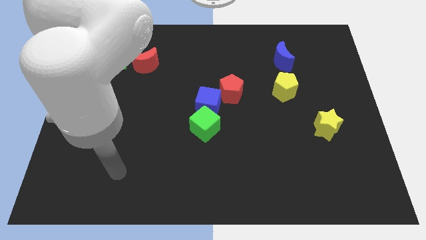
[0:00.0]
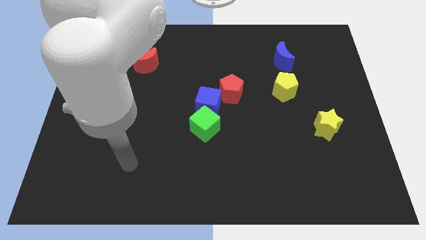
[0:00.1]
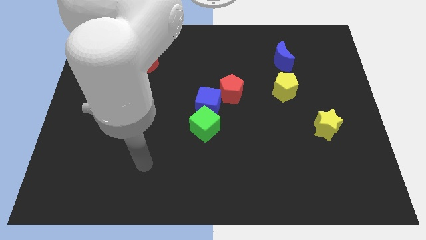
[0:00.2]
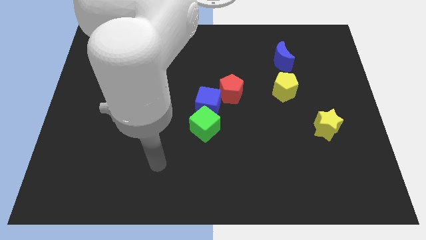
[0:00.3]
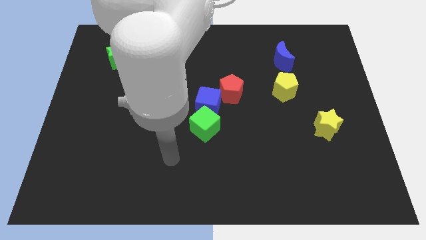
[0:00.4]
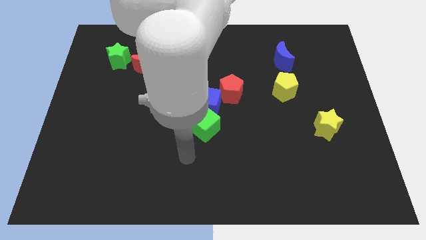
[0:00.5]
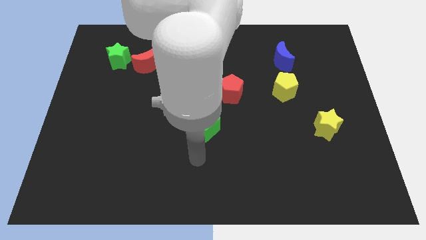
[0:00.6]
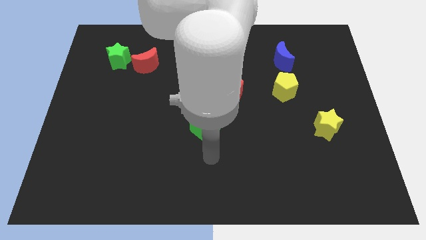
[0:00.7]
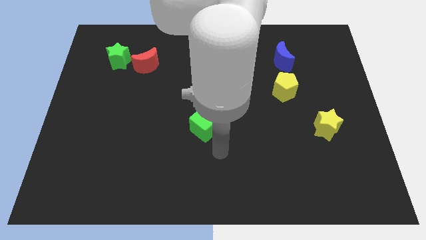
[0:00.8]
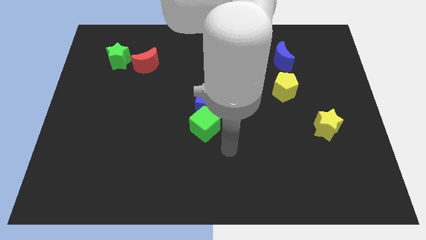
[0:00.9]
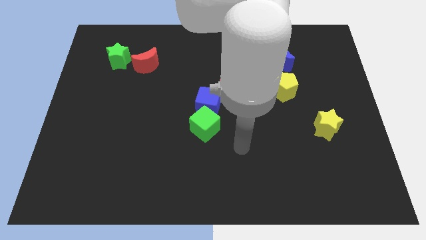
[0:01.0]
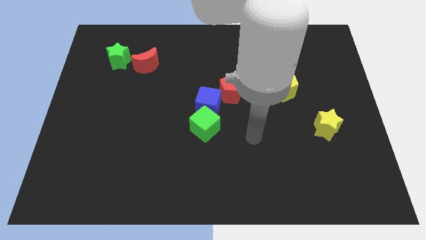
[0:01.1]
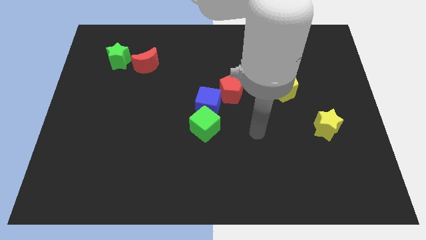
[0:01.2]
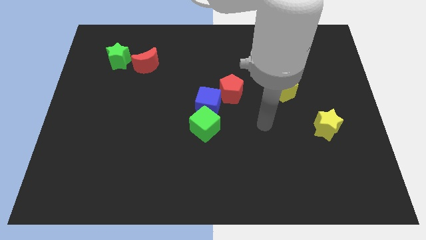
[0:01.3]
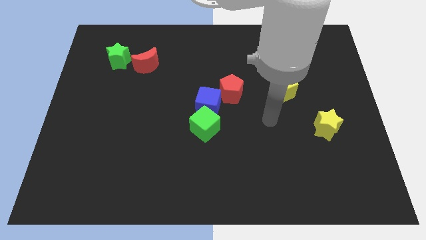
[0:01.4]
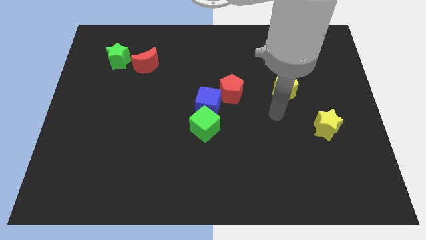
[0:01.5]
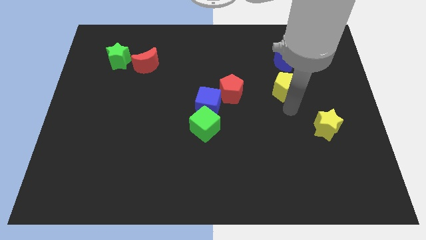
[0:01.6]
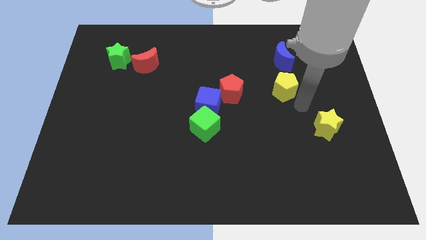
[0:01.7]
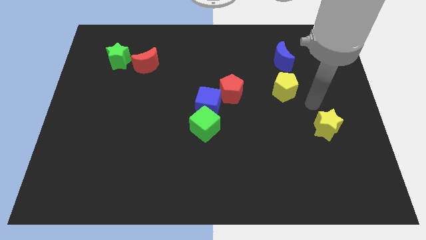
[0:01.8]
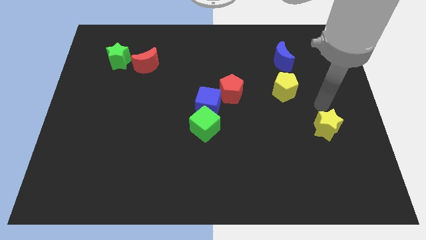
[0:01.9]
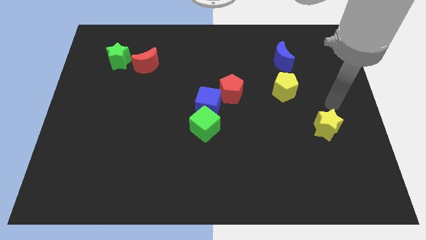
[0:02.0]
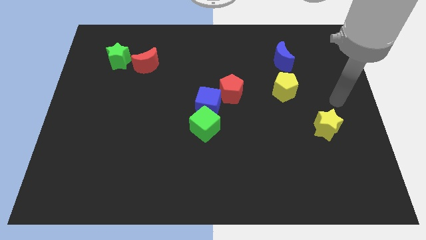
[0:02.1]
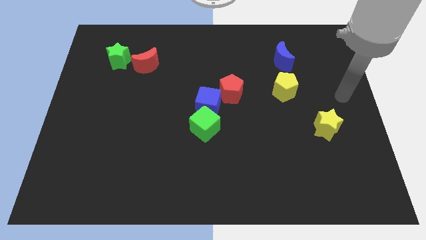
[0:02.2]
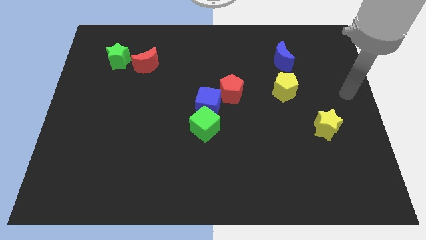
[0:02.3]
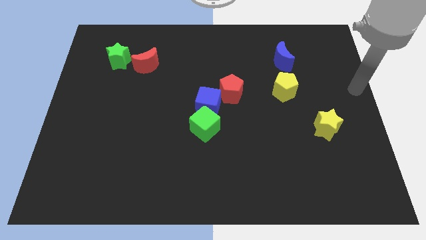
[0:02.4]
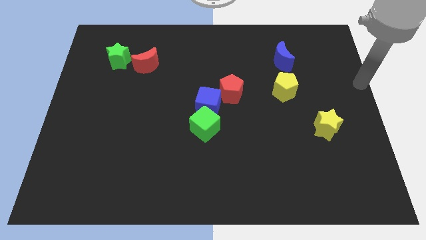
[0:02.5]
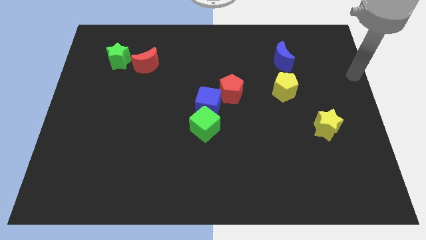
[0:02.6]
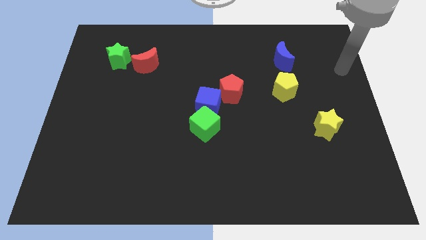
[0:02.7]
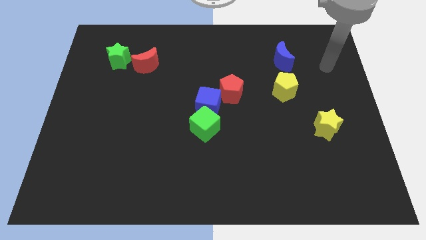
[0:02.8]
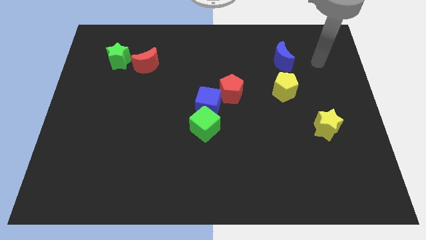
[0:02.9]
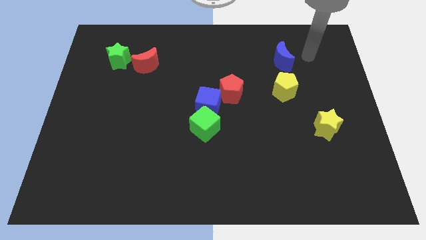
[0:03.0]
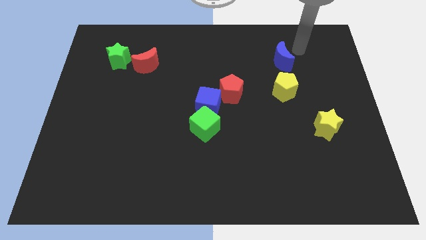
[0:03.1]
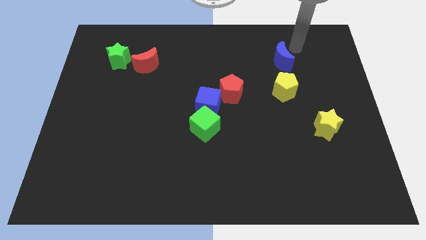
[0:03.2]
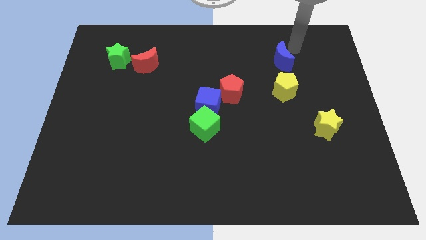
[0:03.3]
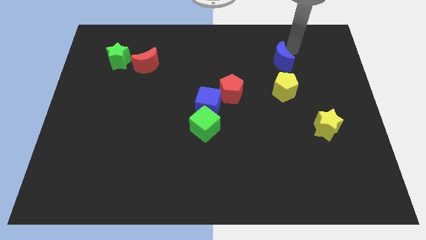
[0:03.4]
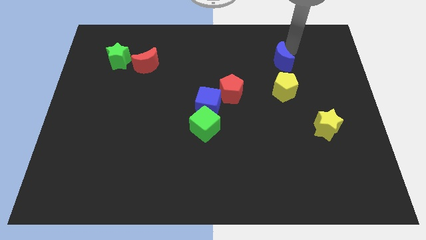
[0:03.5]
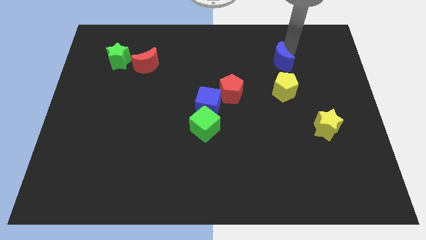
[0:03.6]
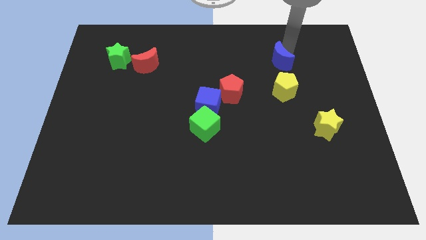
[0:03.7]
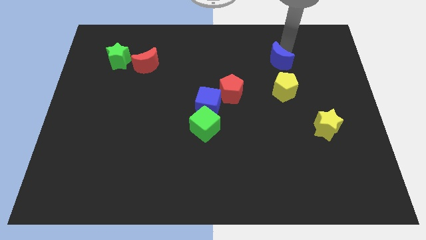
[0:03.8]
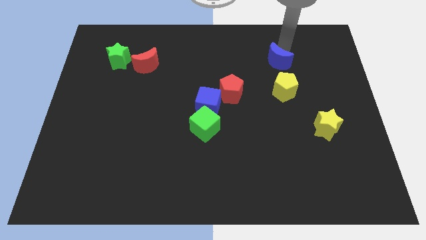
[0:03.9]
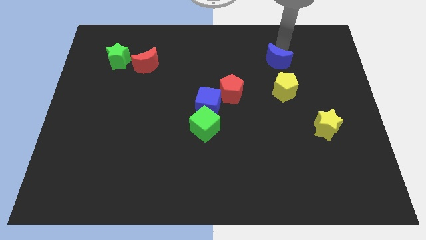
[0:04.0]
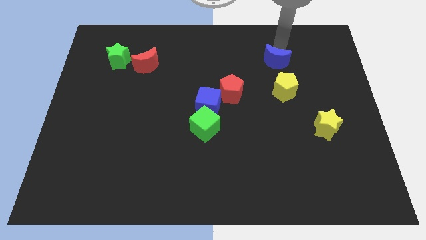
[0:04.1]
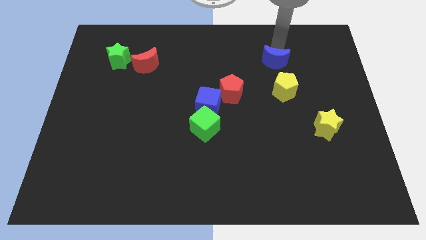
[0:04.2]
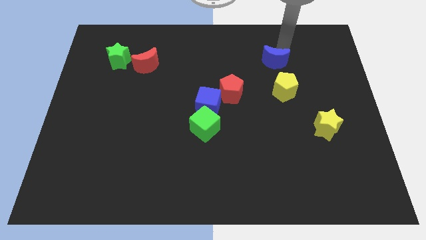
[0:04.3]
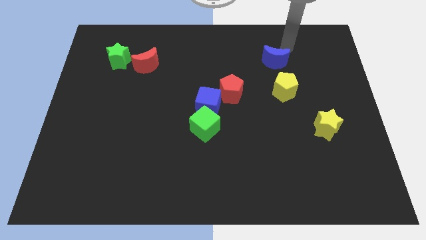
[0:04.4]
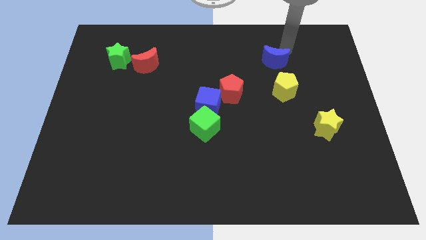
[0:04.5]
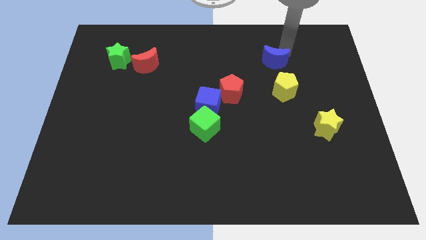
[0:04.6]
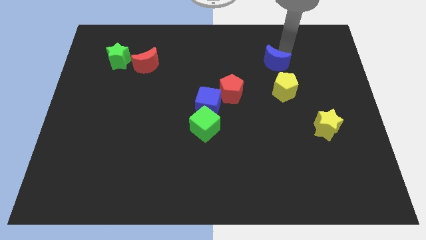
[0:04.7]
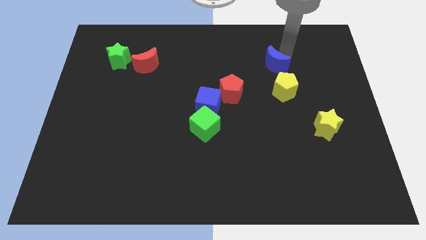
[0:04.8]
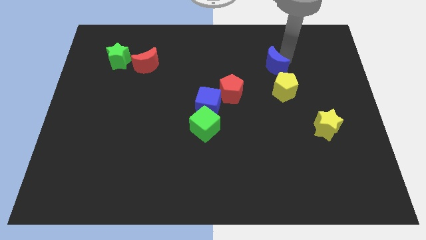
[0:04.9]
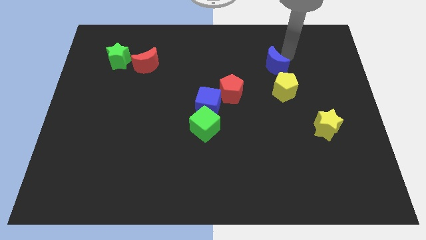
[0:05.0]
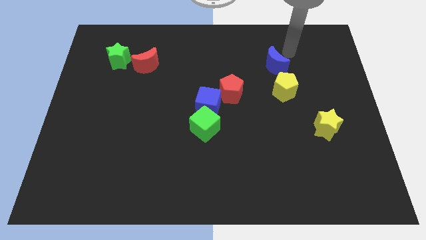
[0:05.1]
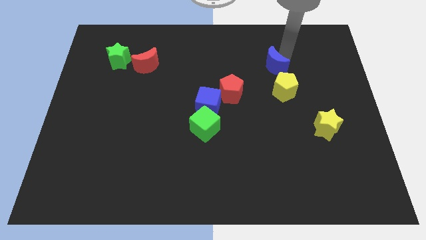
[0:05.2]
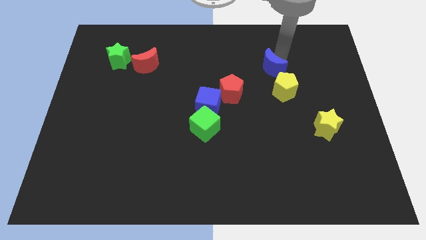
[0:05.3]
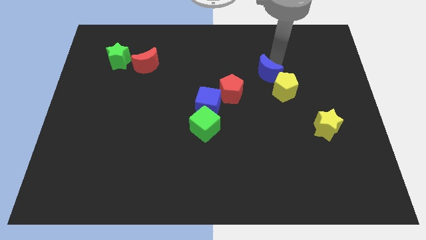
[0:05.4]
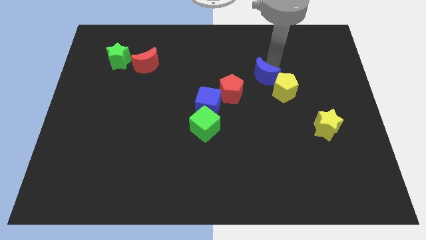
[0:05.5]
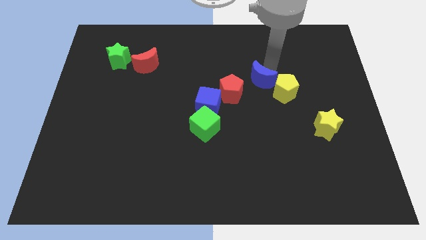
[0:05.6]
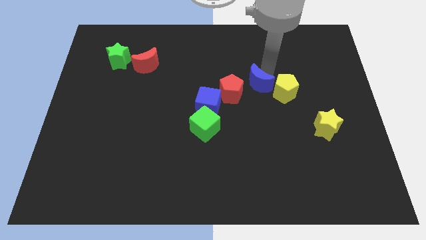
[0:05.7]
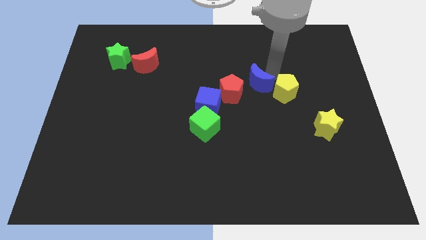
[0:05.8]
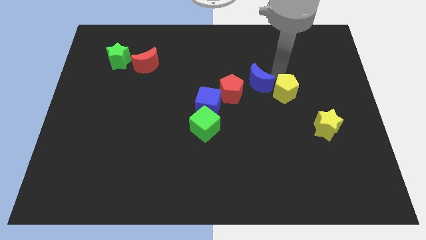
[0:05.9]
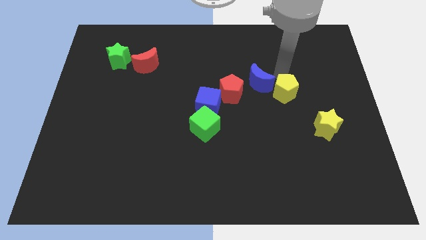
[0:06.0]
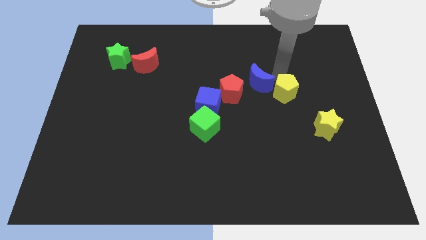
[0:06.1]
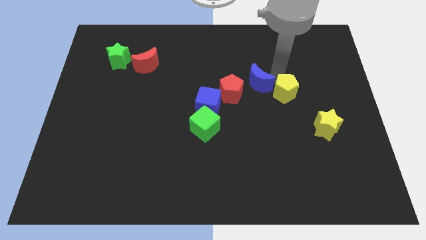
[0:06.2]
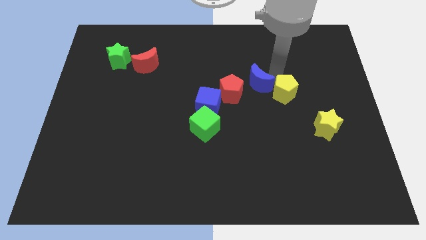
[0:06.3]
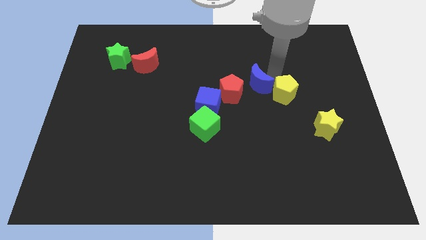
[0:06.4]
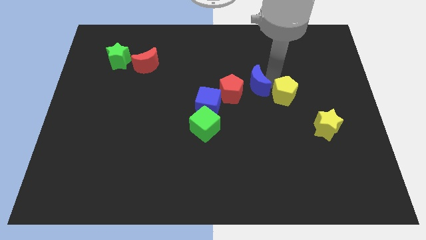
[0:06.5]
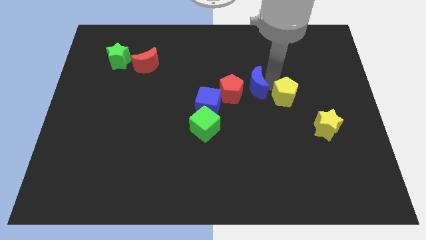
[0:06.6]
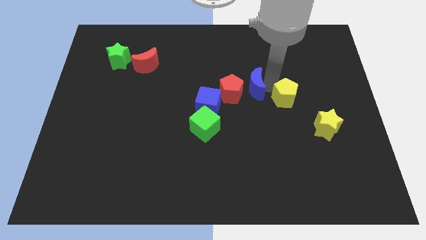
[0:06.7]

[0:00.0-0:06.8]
slide the blue moon towards the red pentagon

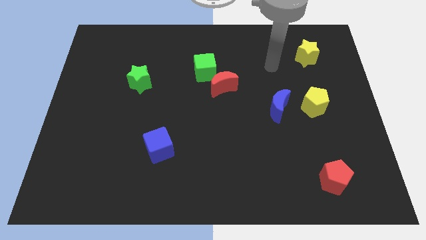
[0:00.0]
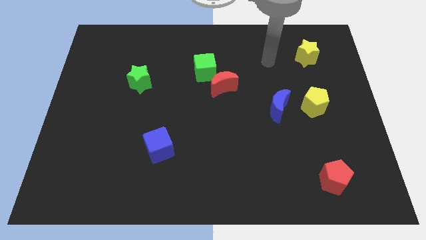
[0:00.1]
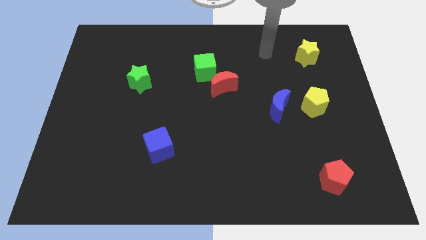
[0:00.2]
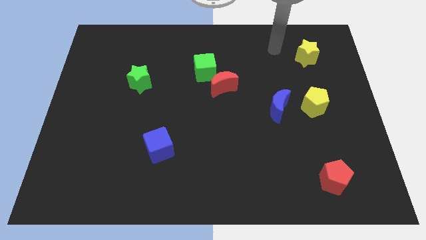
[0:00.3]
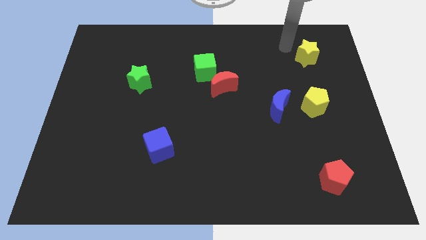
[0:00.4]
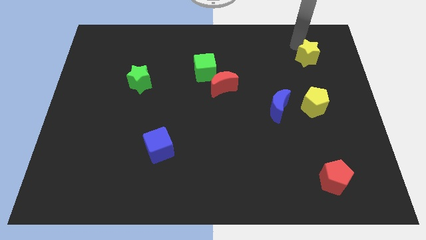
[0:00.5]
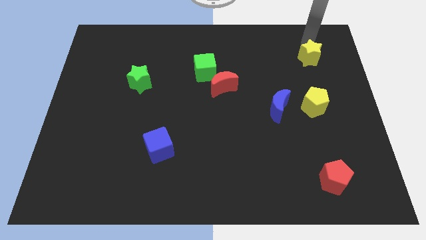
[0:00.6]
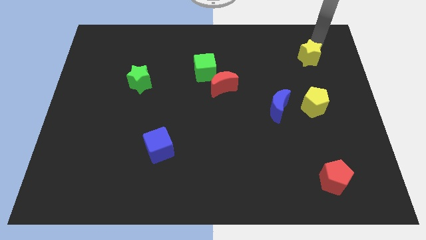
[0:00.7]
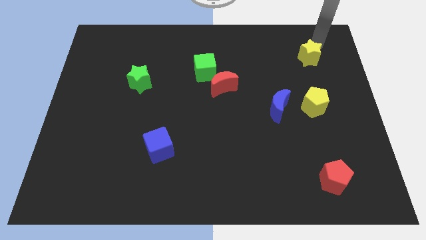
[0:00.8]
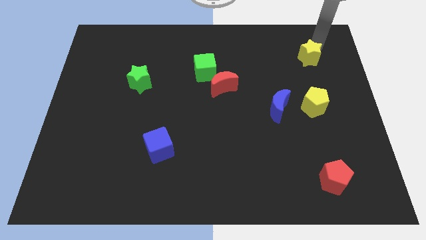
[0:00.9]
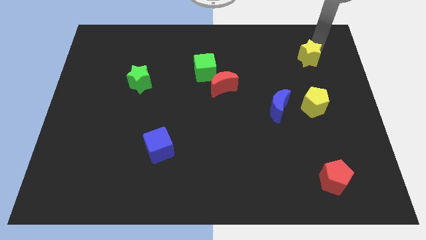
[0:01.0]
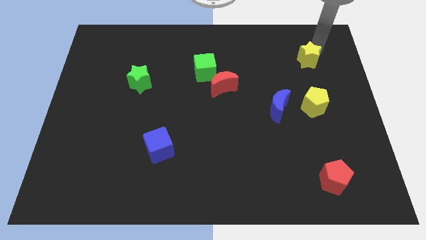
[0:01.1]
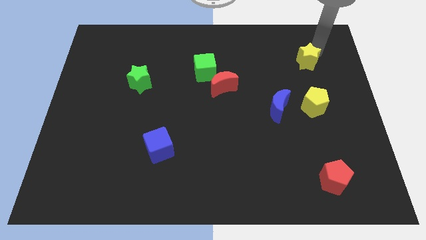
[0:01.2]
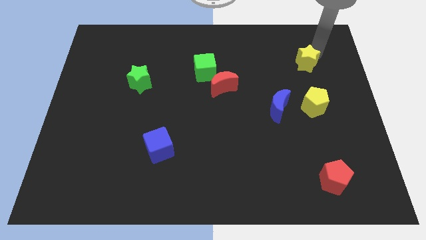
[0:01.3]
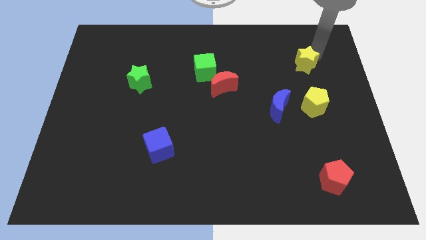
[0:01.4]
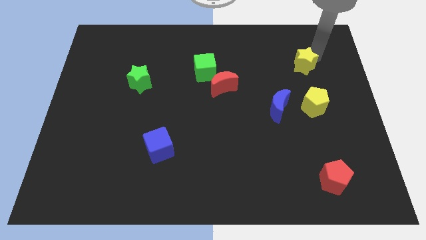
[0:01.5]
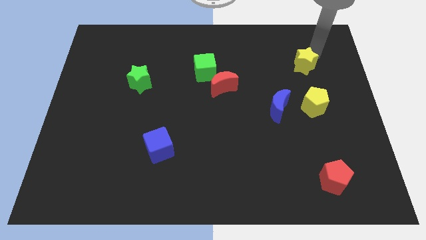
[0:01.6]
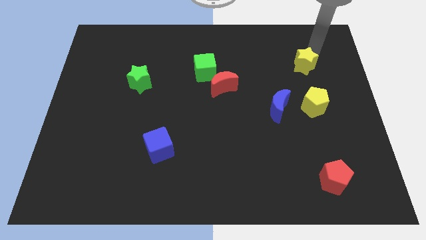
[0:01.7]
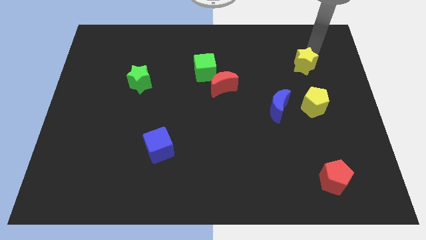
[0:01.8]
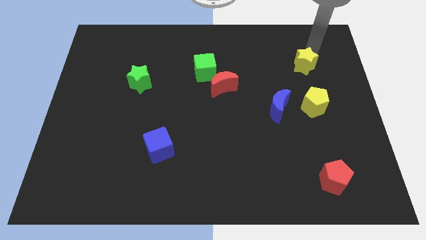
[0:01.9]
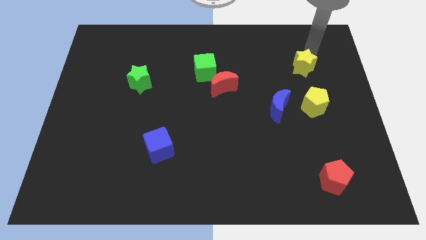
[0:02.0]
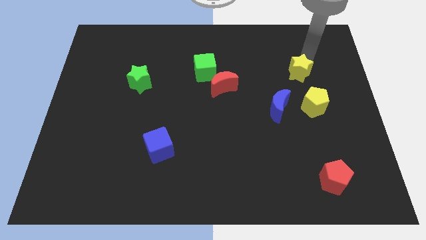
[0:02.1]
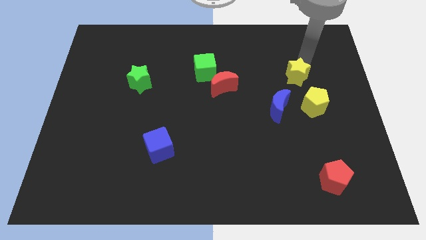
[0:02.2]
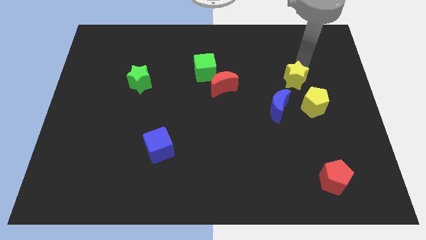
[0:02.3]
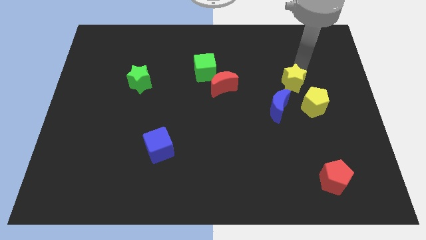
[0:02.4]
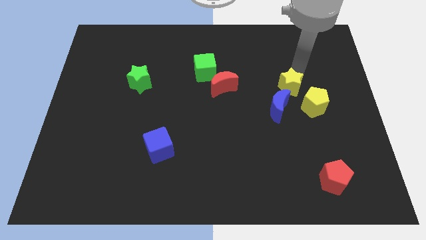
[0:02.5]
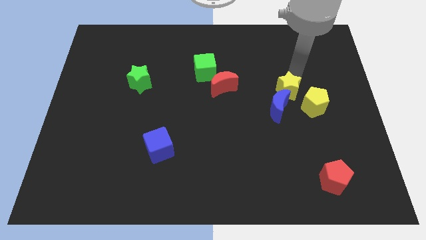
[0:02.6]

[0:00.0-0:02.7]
move the yellow star to the blue moon
